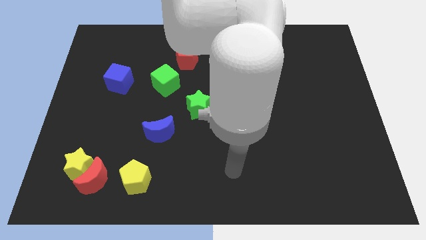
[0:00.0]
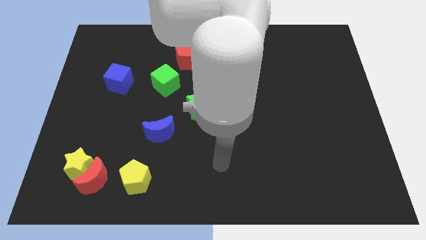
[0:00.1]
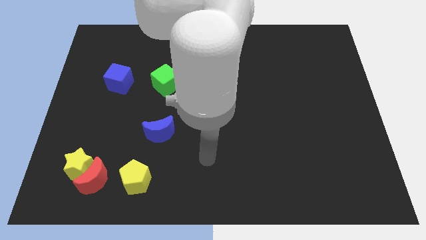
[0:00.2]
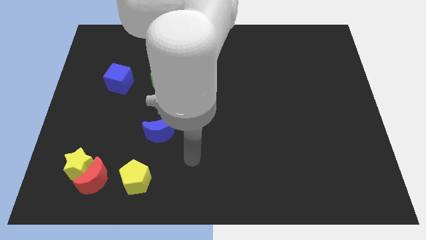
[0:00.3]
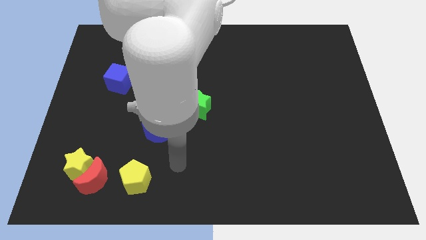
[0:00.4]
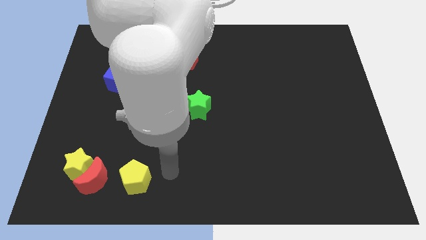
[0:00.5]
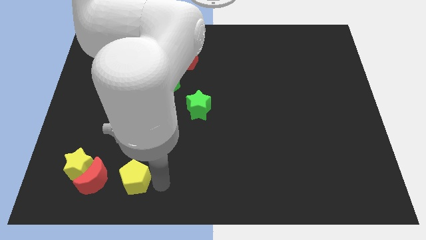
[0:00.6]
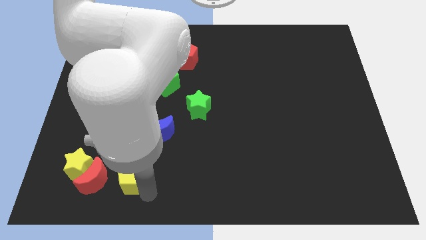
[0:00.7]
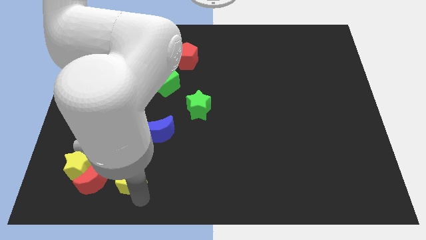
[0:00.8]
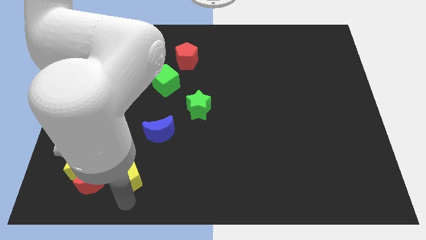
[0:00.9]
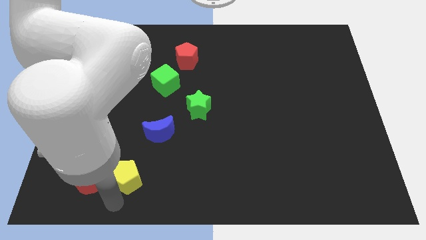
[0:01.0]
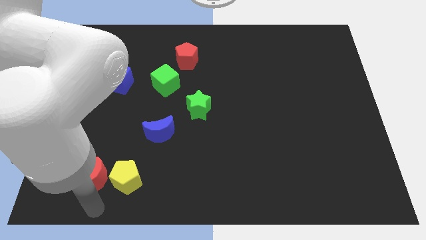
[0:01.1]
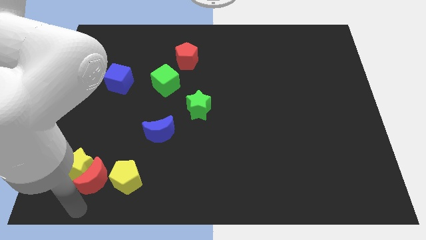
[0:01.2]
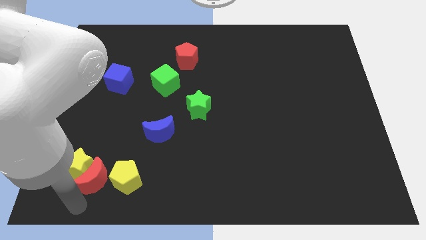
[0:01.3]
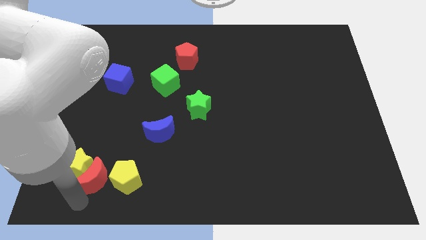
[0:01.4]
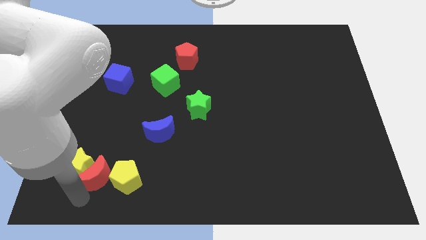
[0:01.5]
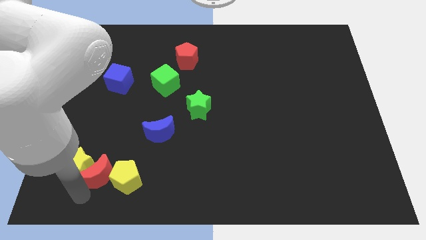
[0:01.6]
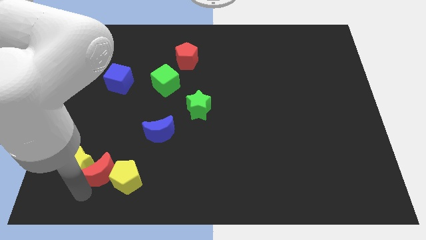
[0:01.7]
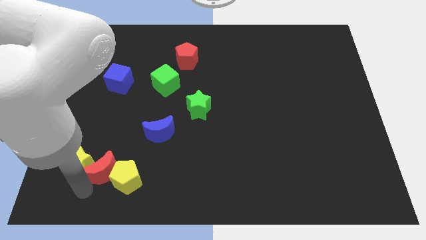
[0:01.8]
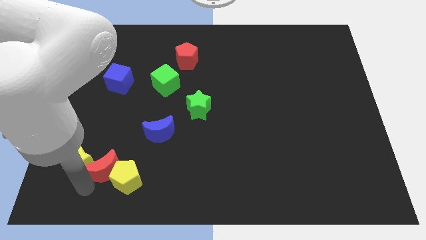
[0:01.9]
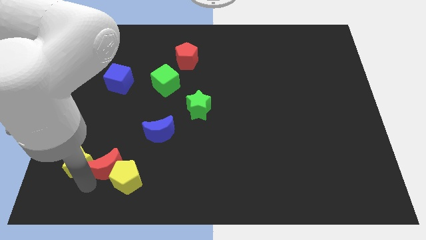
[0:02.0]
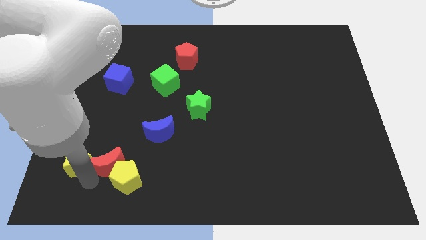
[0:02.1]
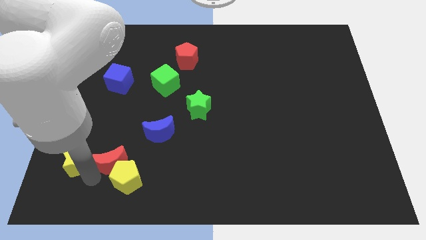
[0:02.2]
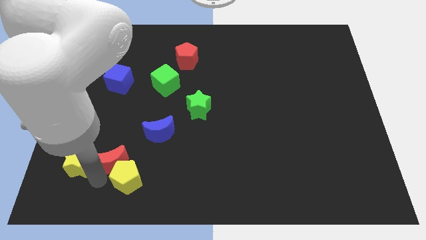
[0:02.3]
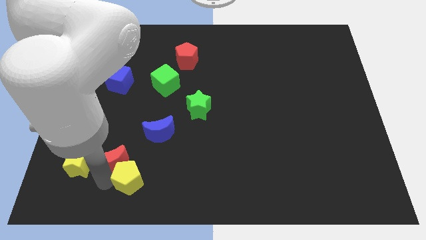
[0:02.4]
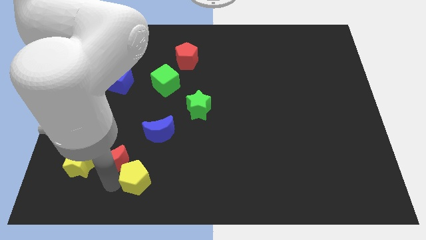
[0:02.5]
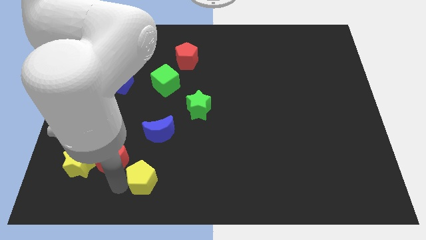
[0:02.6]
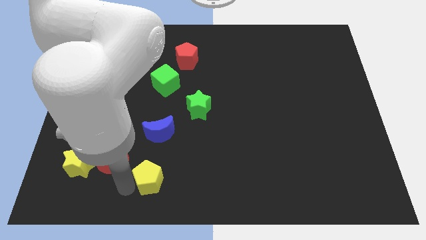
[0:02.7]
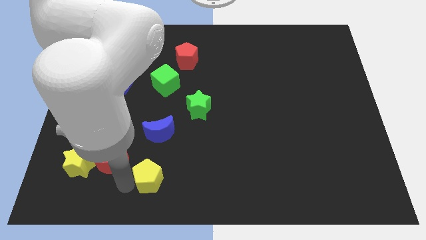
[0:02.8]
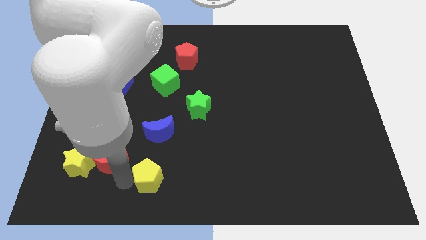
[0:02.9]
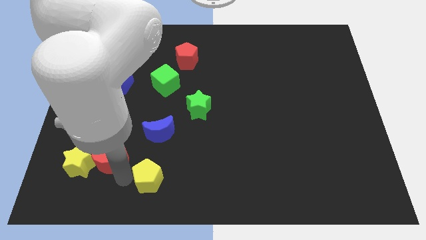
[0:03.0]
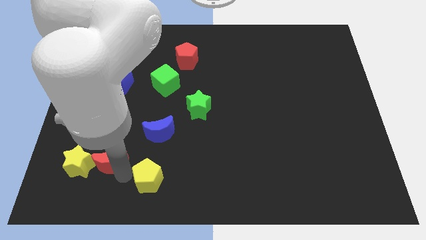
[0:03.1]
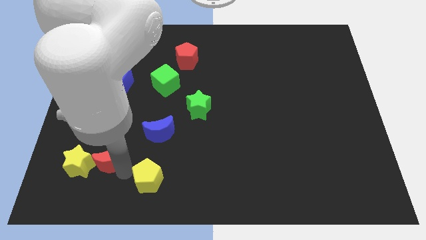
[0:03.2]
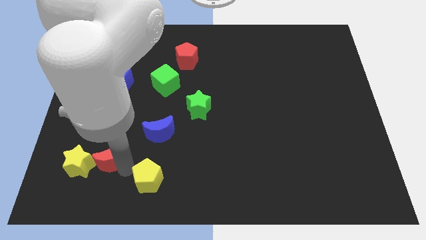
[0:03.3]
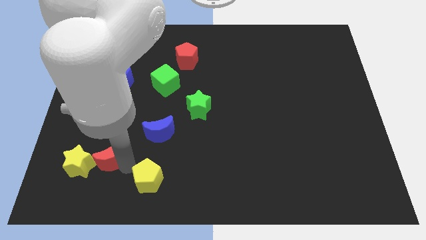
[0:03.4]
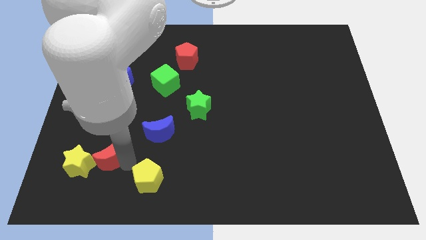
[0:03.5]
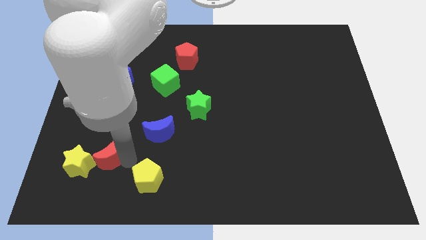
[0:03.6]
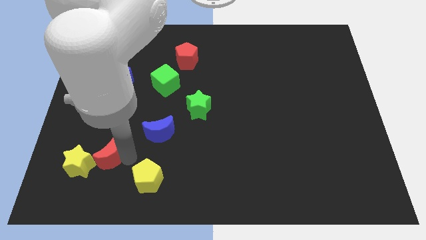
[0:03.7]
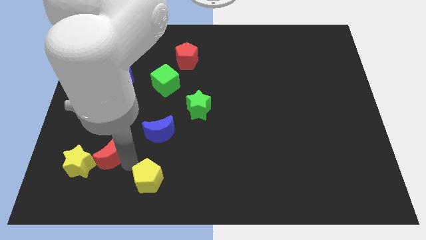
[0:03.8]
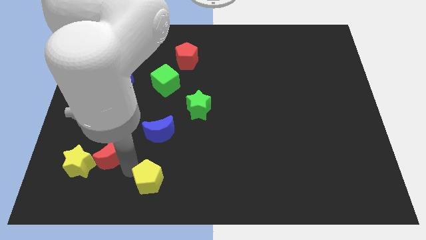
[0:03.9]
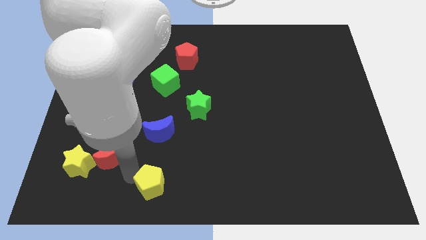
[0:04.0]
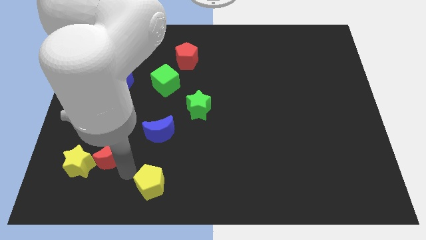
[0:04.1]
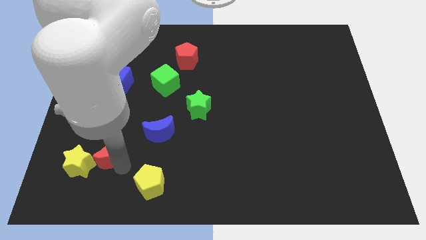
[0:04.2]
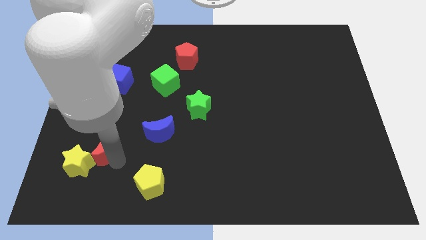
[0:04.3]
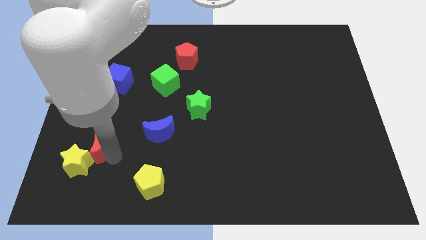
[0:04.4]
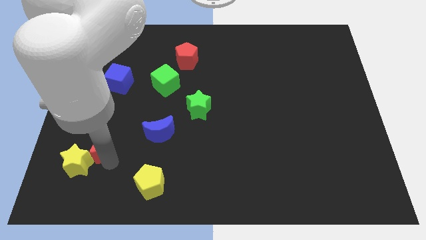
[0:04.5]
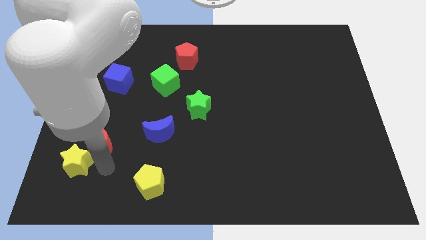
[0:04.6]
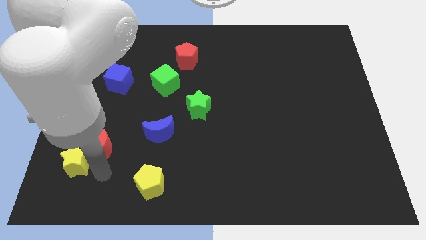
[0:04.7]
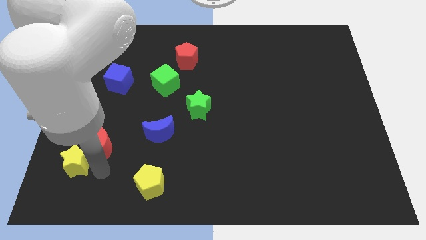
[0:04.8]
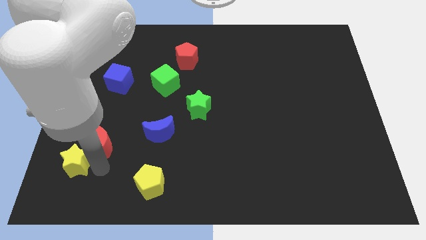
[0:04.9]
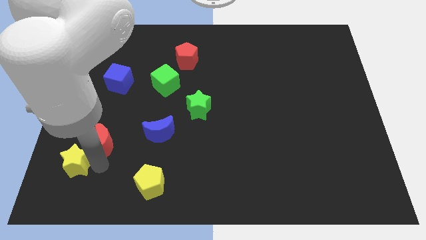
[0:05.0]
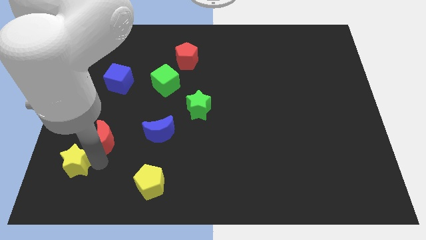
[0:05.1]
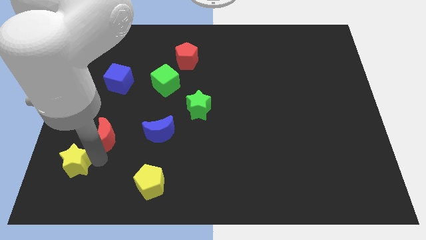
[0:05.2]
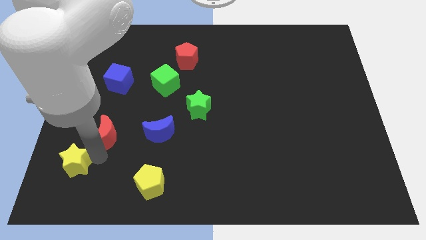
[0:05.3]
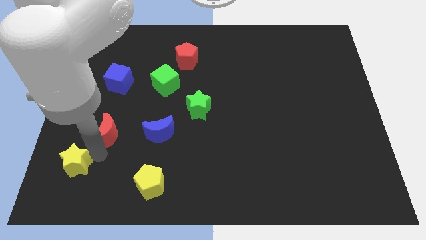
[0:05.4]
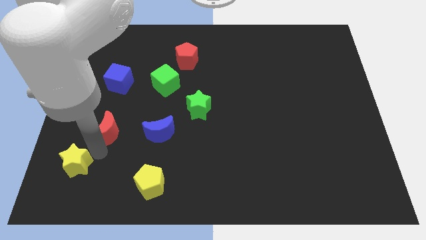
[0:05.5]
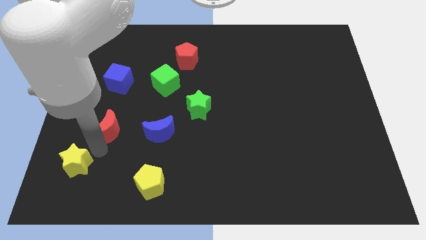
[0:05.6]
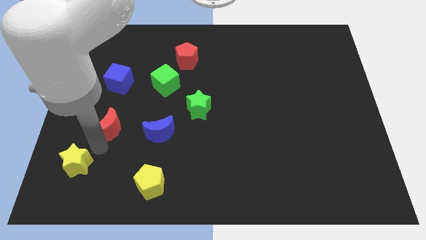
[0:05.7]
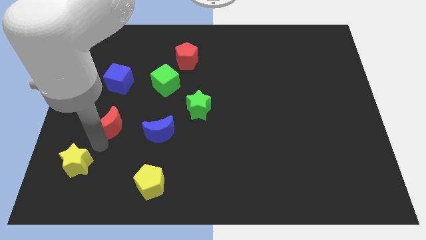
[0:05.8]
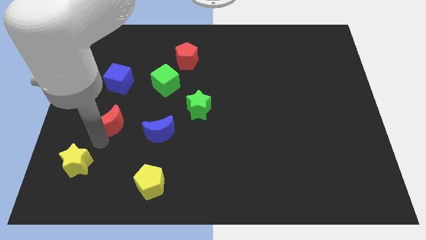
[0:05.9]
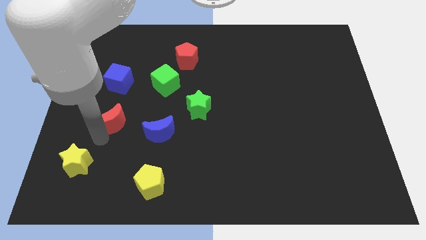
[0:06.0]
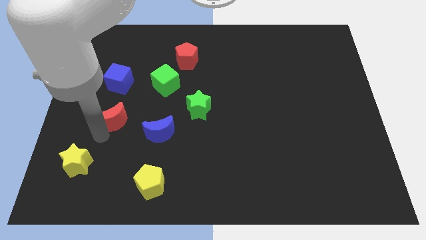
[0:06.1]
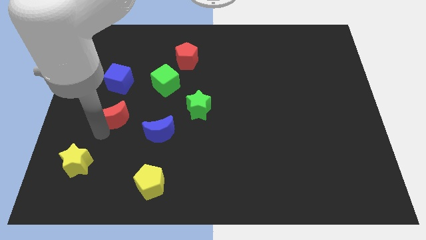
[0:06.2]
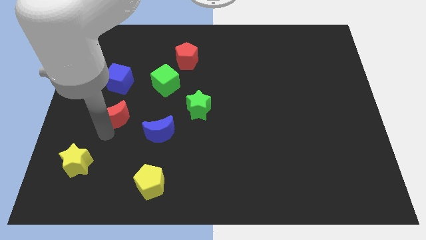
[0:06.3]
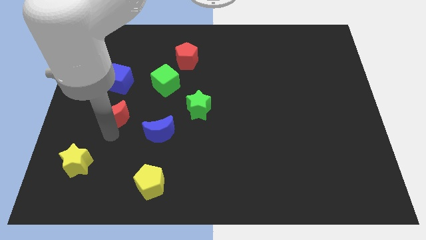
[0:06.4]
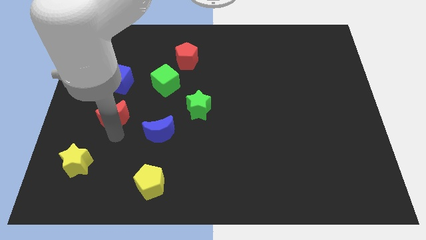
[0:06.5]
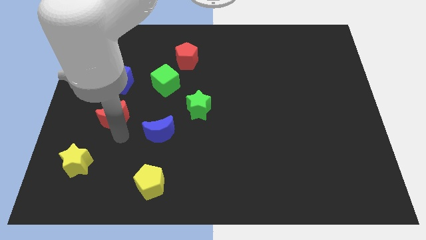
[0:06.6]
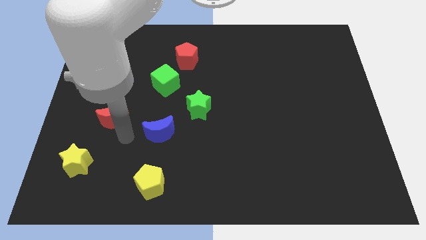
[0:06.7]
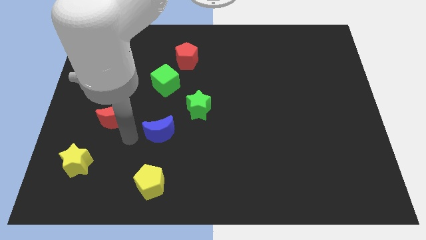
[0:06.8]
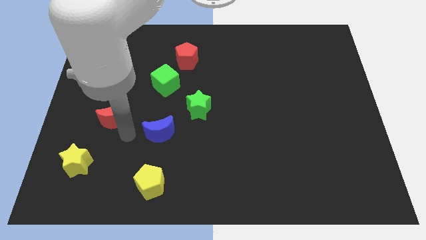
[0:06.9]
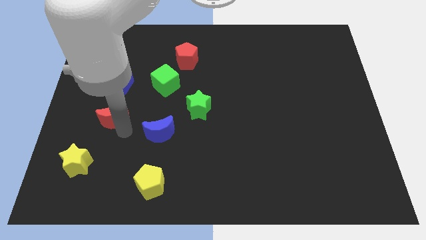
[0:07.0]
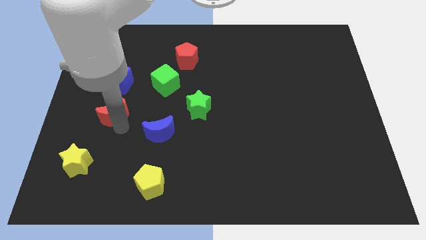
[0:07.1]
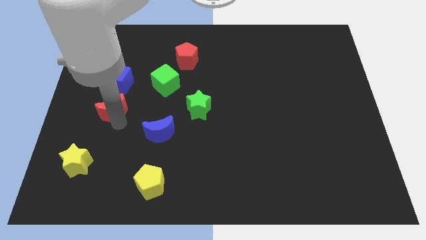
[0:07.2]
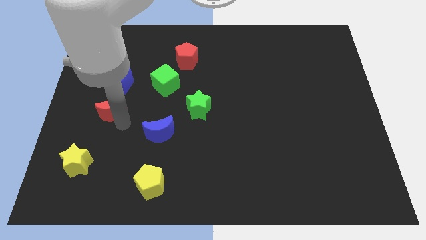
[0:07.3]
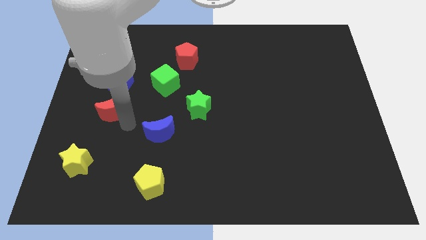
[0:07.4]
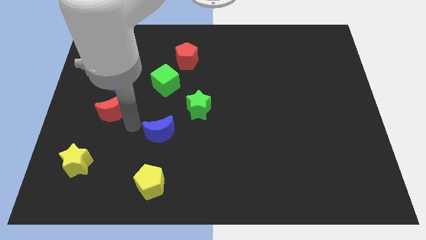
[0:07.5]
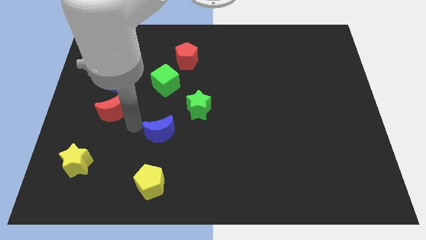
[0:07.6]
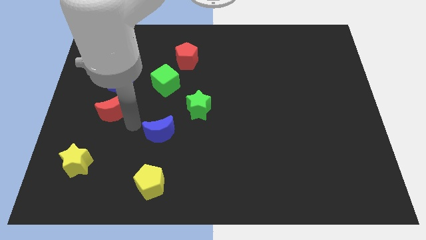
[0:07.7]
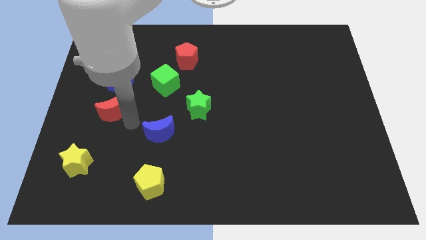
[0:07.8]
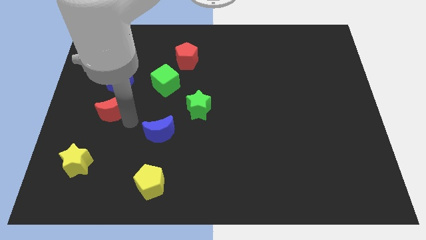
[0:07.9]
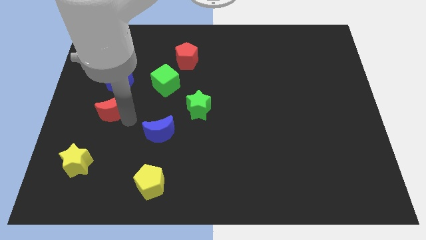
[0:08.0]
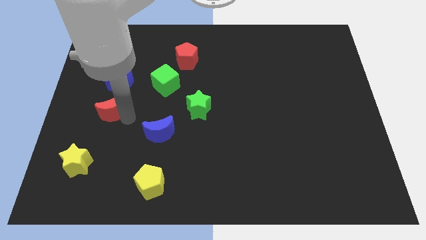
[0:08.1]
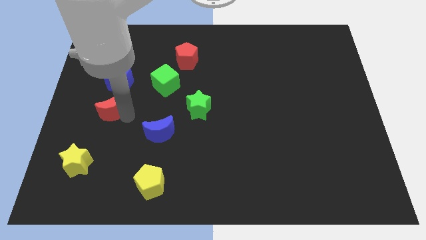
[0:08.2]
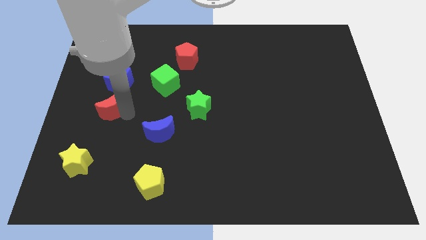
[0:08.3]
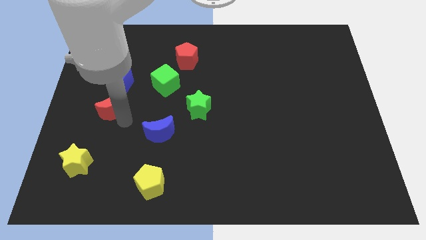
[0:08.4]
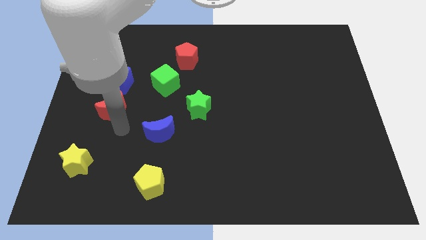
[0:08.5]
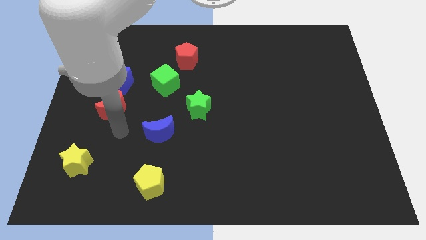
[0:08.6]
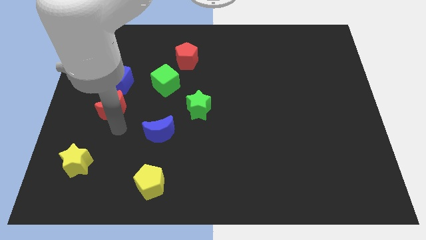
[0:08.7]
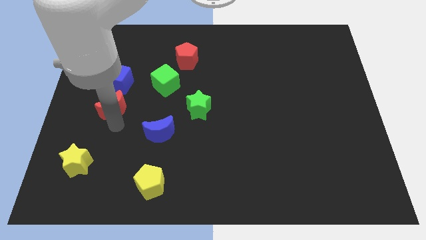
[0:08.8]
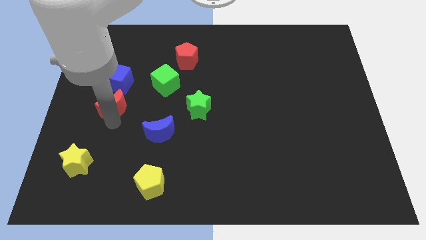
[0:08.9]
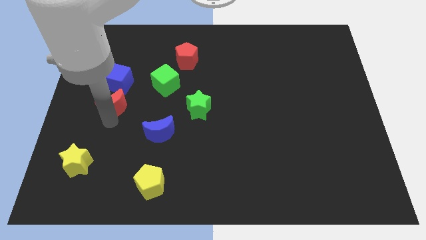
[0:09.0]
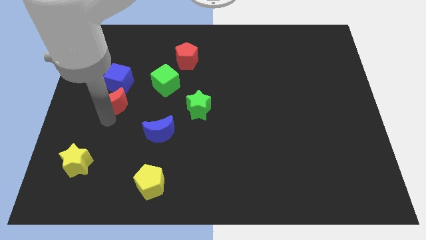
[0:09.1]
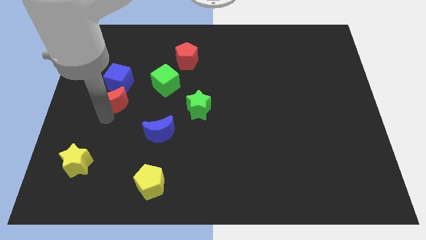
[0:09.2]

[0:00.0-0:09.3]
push the red moon upwards
